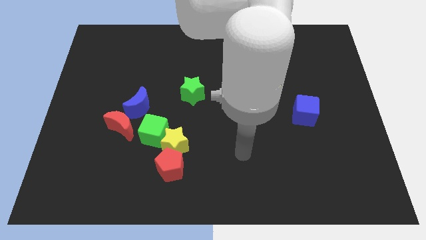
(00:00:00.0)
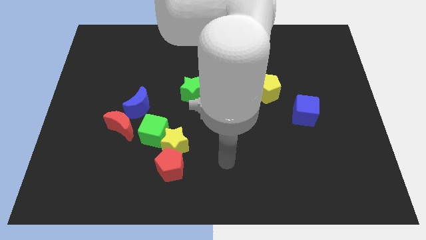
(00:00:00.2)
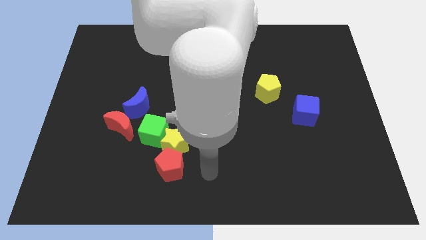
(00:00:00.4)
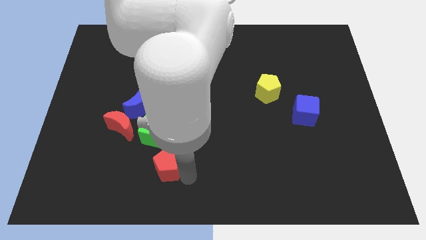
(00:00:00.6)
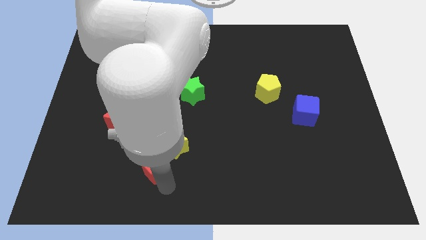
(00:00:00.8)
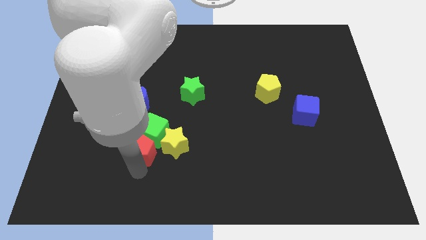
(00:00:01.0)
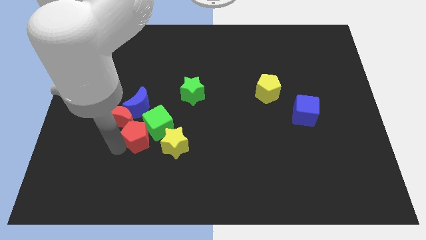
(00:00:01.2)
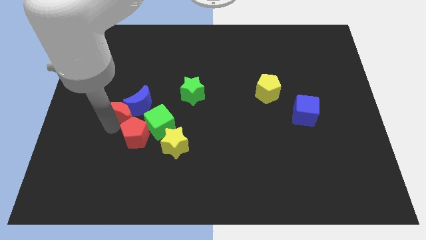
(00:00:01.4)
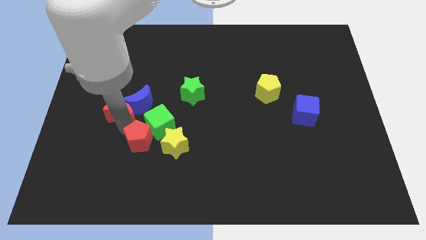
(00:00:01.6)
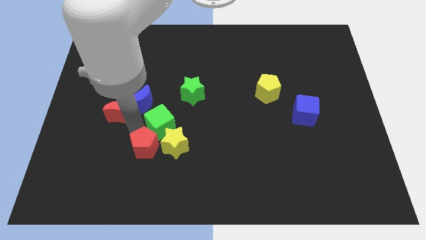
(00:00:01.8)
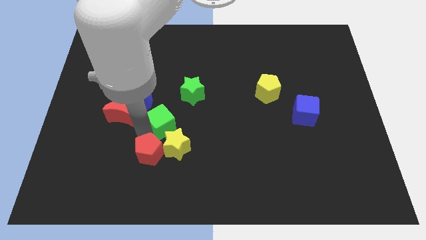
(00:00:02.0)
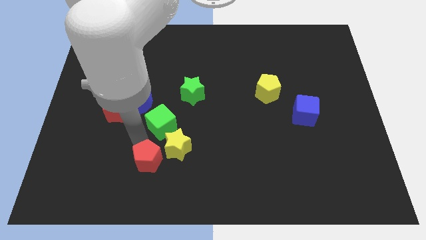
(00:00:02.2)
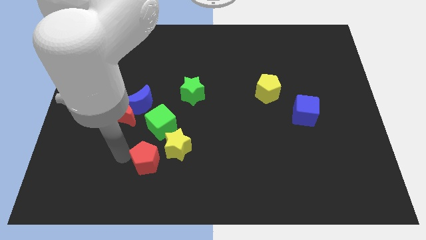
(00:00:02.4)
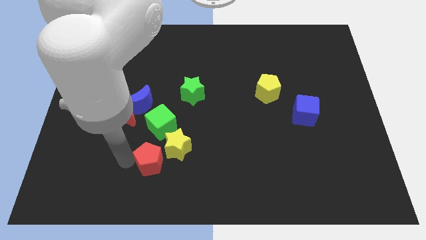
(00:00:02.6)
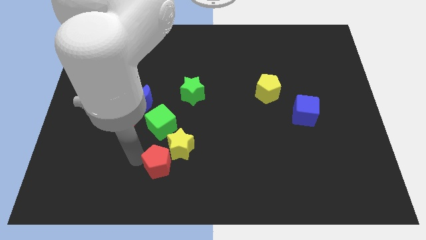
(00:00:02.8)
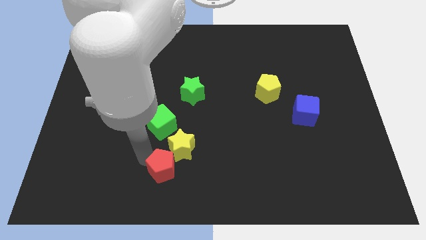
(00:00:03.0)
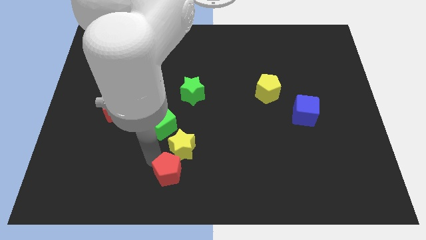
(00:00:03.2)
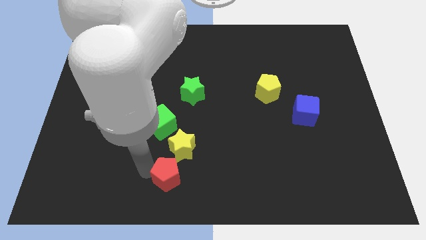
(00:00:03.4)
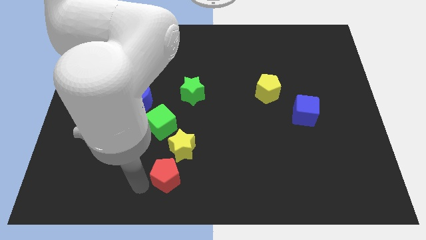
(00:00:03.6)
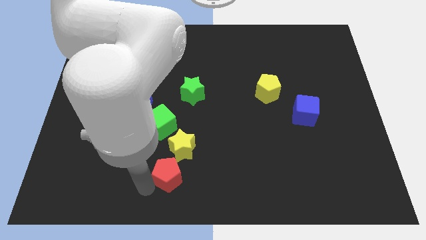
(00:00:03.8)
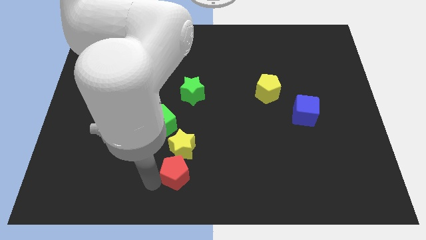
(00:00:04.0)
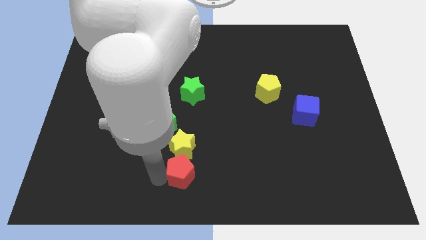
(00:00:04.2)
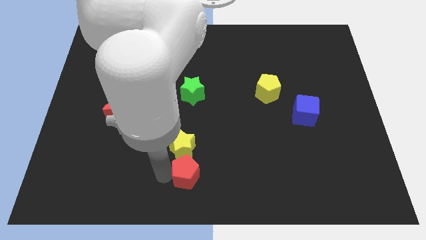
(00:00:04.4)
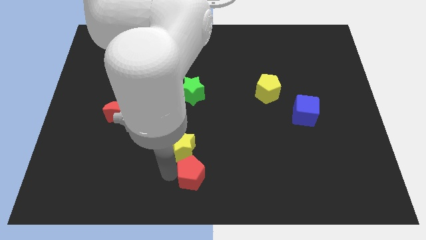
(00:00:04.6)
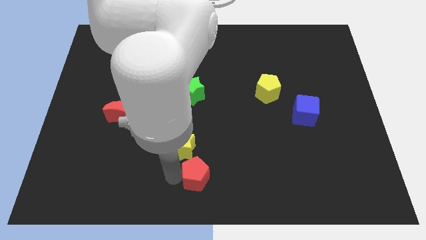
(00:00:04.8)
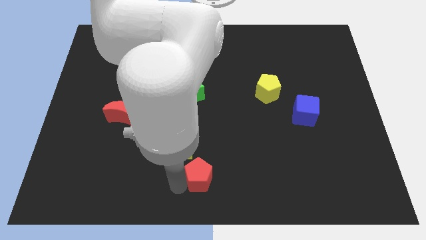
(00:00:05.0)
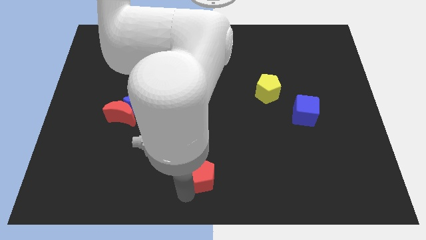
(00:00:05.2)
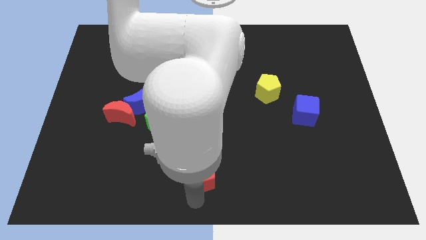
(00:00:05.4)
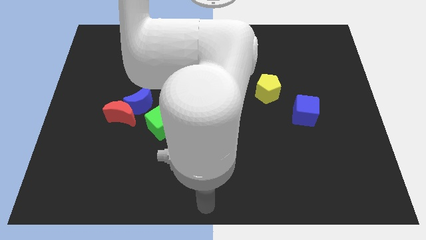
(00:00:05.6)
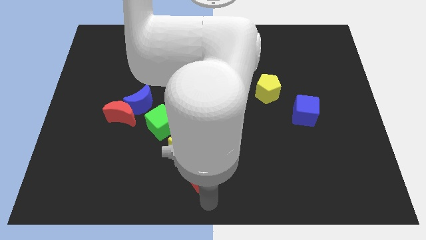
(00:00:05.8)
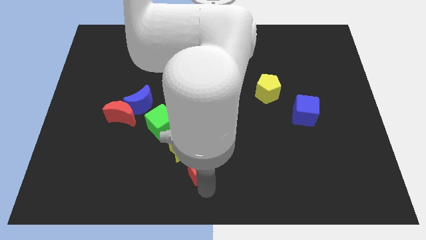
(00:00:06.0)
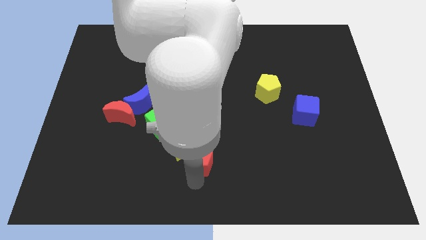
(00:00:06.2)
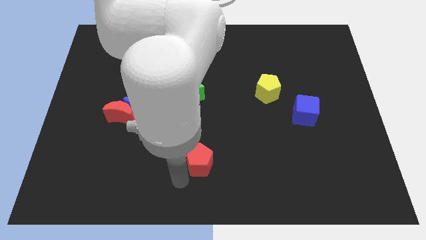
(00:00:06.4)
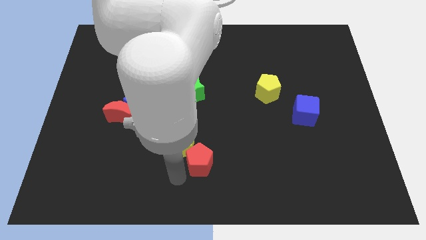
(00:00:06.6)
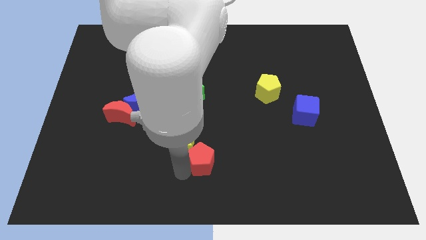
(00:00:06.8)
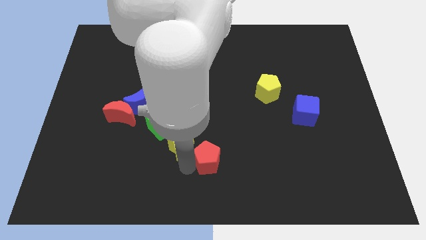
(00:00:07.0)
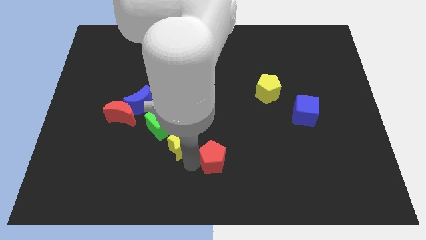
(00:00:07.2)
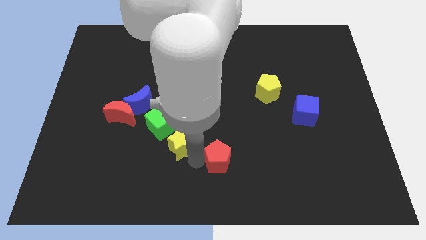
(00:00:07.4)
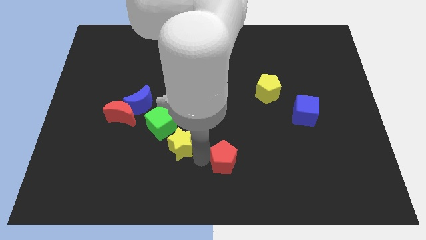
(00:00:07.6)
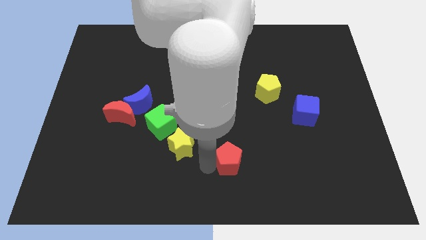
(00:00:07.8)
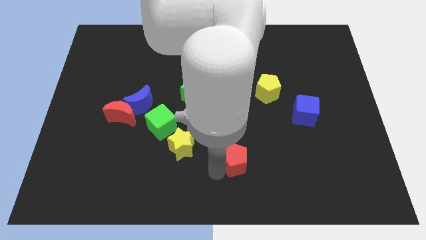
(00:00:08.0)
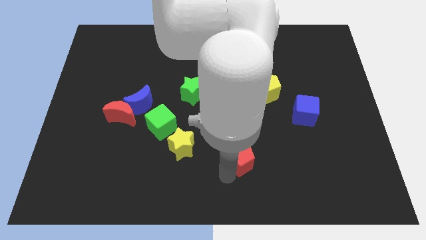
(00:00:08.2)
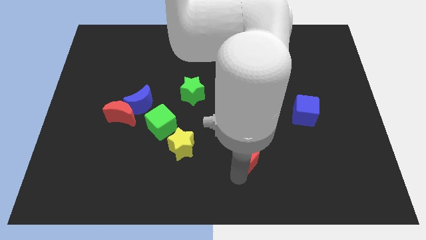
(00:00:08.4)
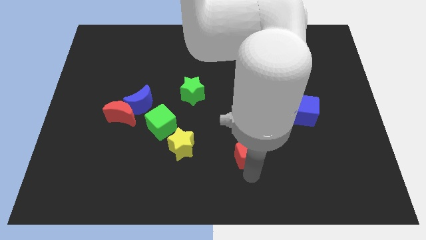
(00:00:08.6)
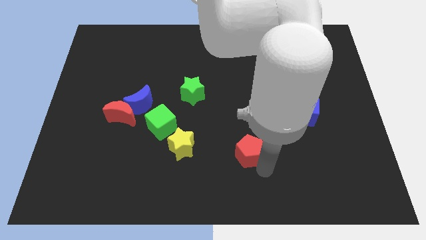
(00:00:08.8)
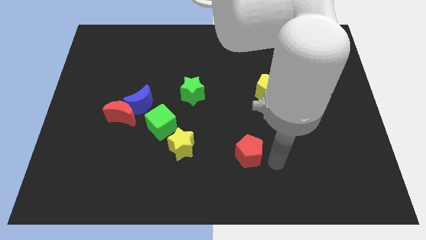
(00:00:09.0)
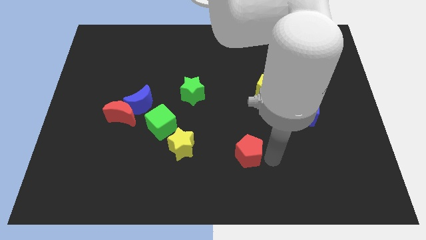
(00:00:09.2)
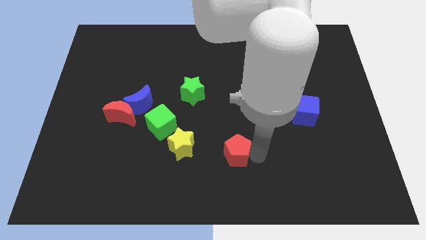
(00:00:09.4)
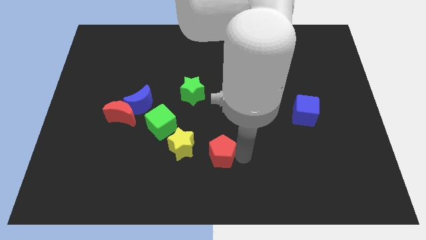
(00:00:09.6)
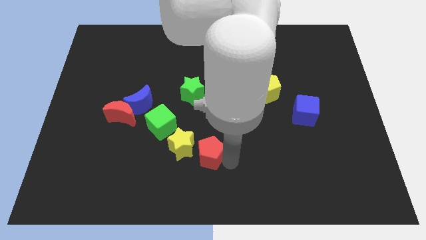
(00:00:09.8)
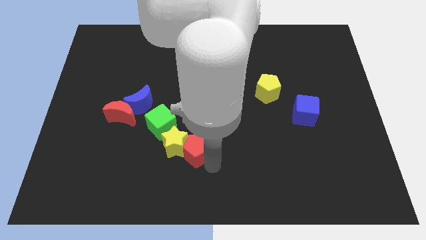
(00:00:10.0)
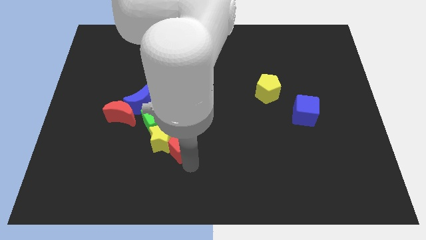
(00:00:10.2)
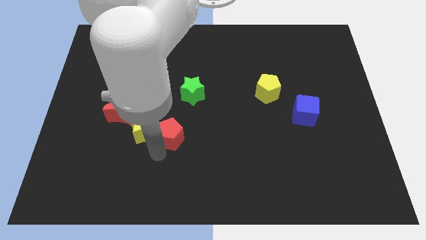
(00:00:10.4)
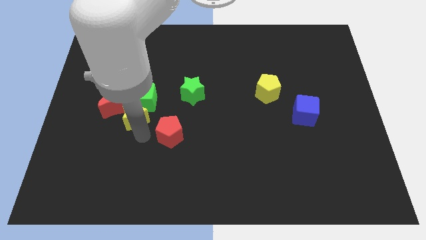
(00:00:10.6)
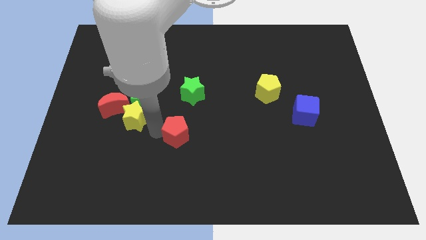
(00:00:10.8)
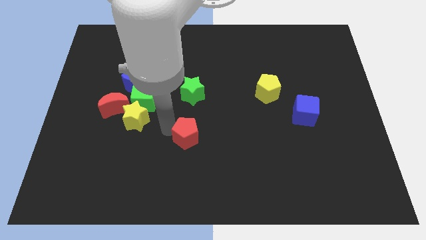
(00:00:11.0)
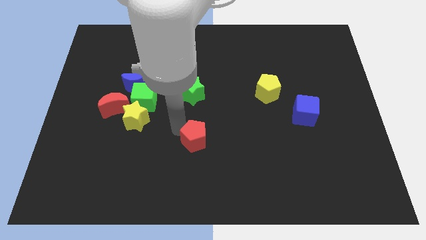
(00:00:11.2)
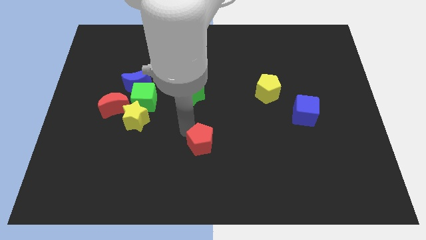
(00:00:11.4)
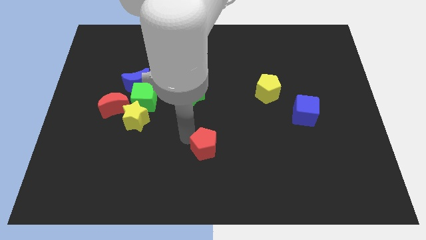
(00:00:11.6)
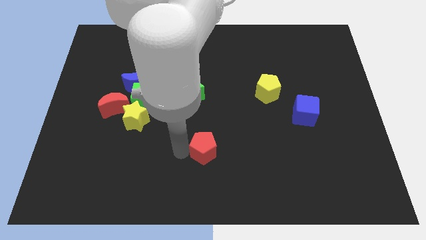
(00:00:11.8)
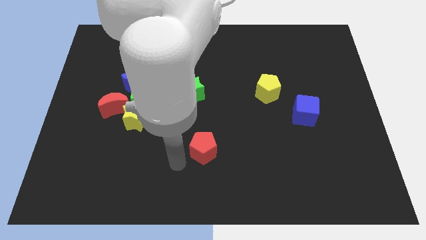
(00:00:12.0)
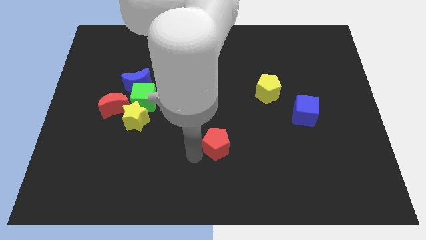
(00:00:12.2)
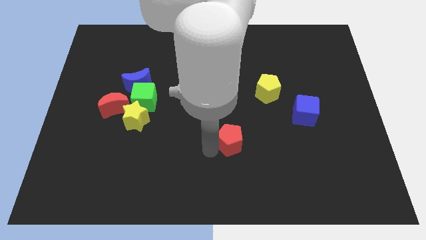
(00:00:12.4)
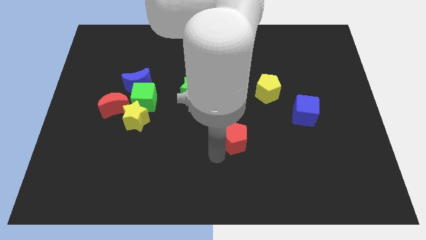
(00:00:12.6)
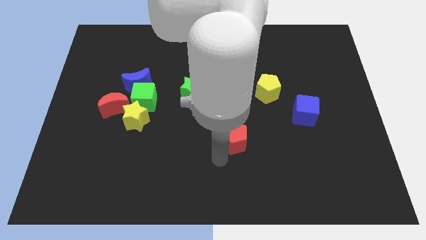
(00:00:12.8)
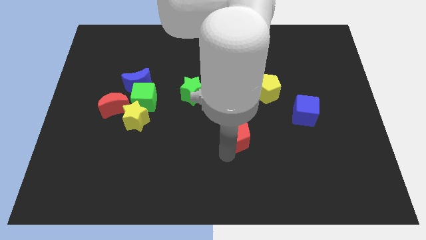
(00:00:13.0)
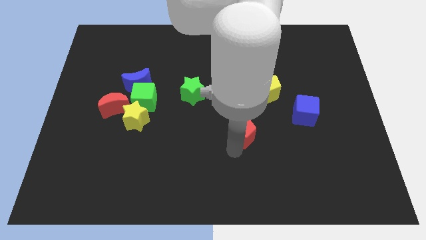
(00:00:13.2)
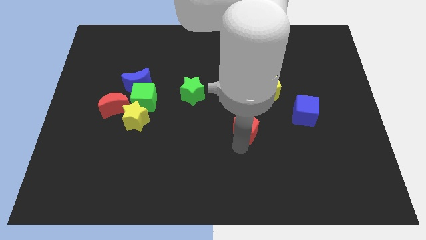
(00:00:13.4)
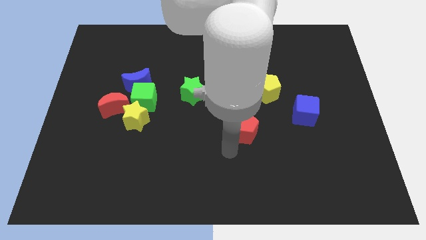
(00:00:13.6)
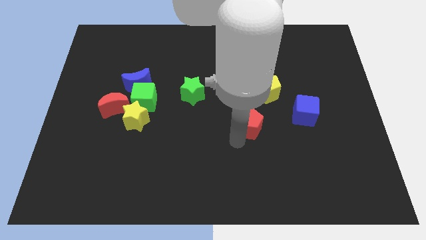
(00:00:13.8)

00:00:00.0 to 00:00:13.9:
push the red pentagon to the left of the blue cube
